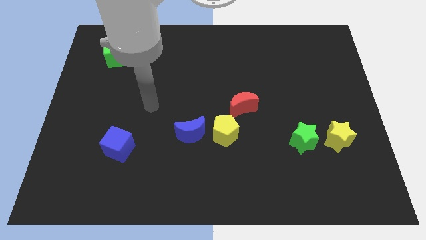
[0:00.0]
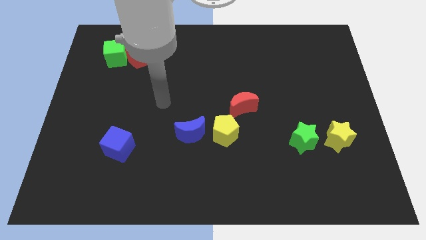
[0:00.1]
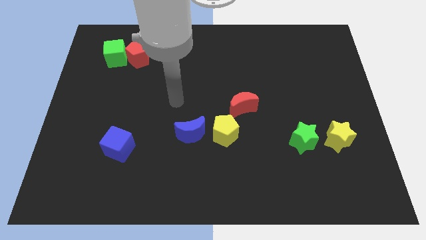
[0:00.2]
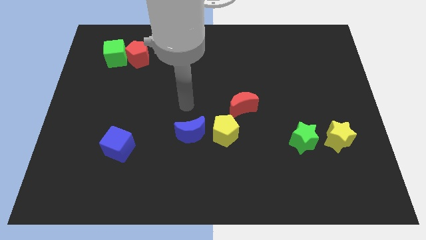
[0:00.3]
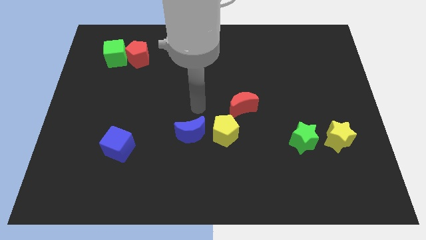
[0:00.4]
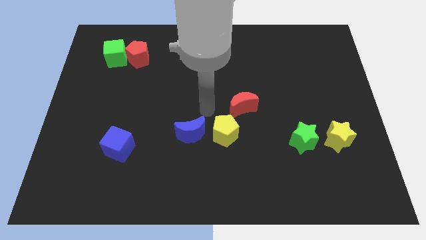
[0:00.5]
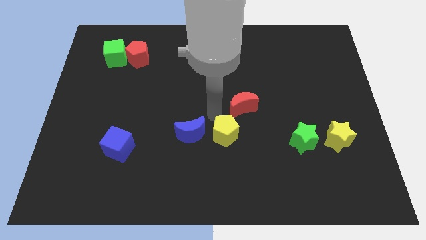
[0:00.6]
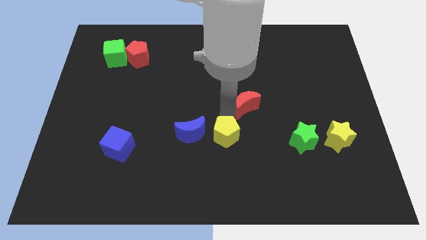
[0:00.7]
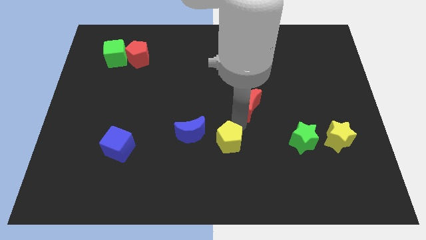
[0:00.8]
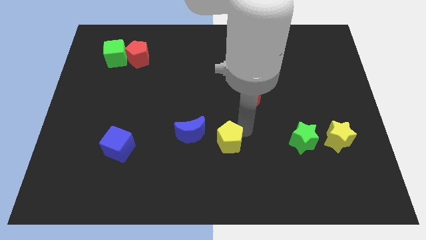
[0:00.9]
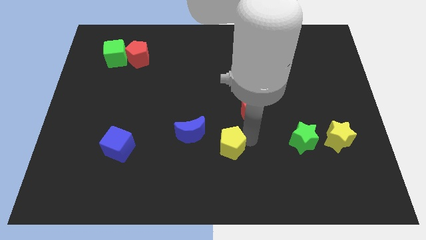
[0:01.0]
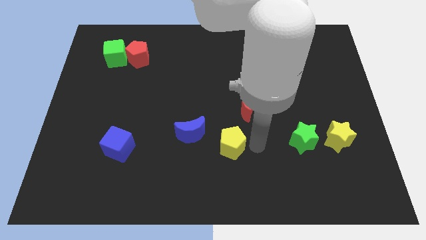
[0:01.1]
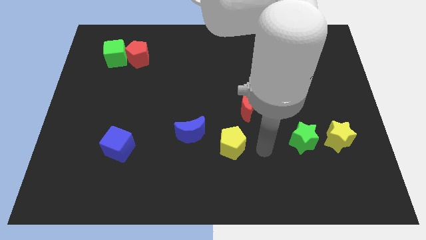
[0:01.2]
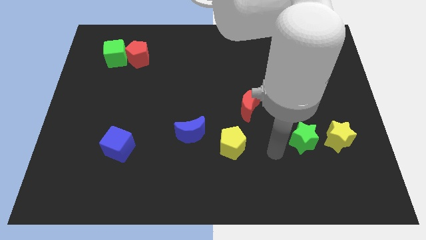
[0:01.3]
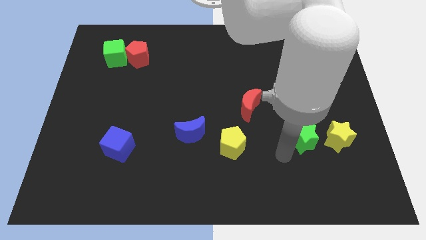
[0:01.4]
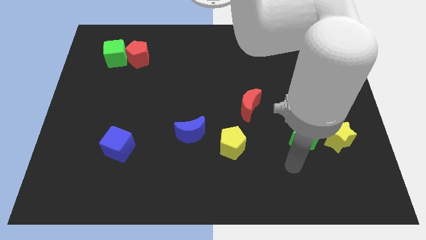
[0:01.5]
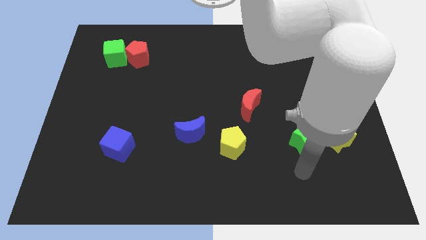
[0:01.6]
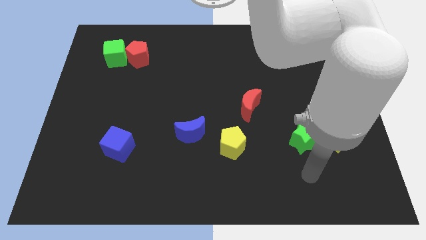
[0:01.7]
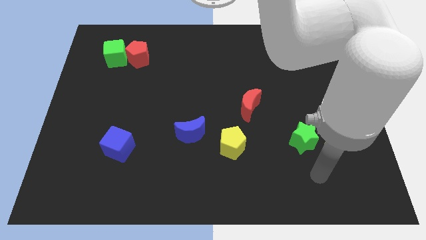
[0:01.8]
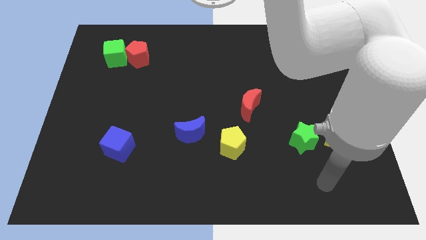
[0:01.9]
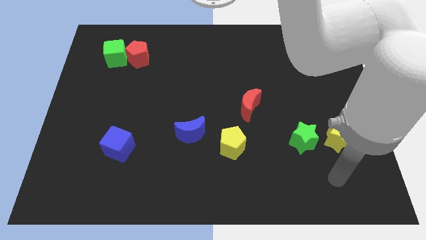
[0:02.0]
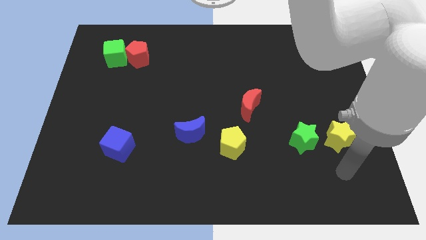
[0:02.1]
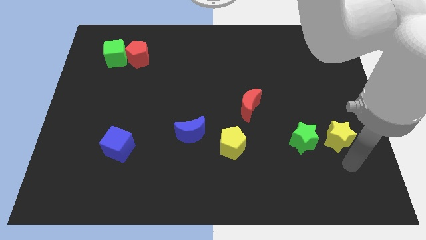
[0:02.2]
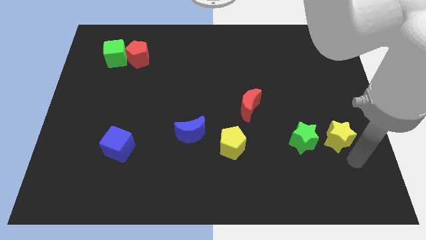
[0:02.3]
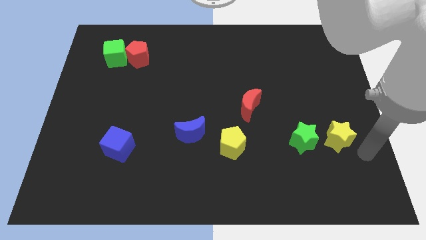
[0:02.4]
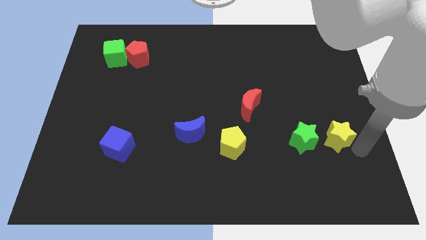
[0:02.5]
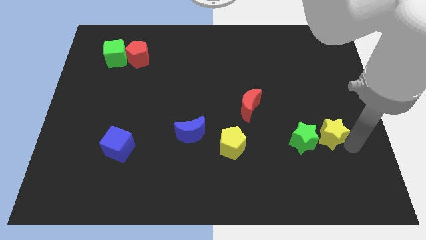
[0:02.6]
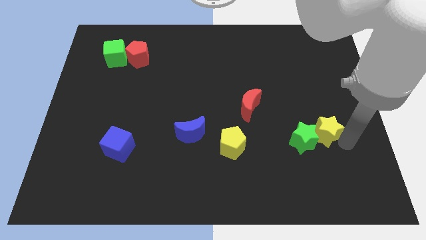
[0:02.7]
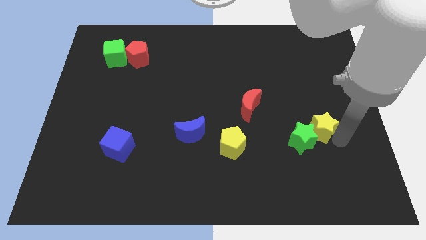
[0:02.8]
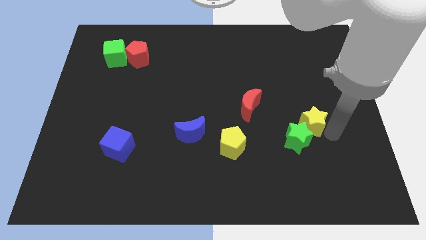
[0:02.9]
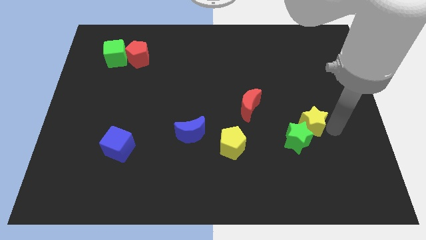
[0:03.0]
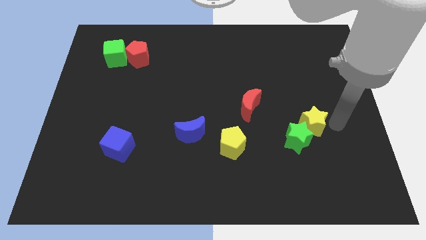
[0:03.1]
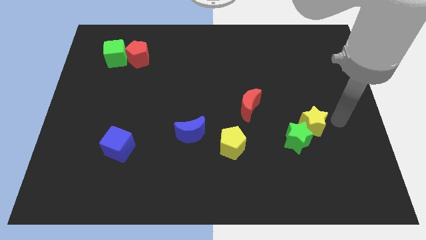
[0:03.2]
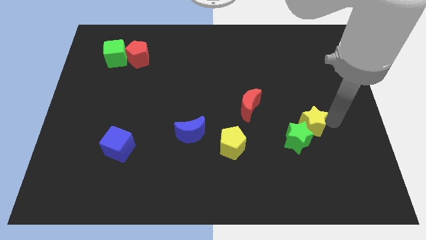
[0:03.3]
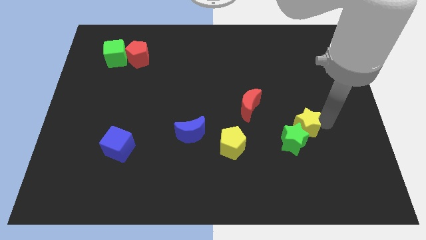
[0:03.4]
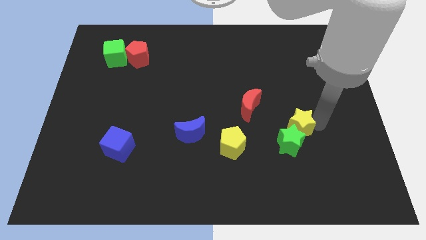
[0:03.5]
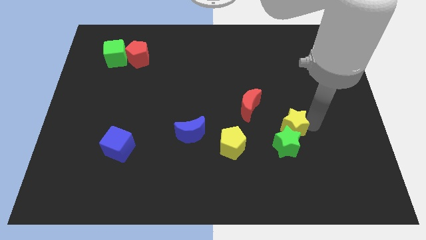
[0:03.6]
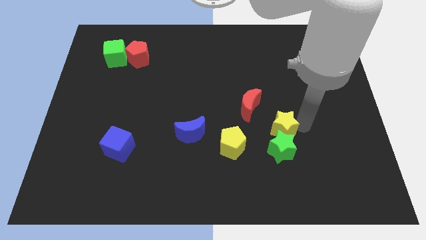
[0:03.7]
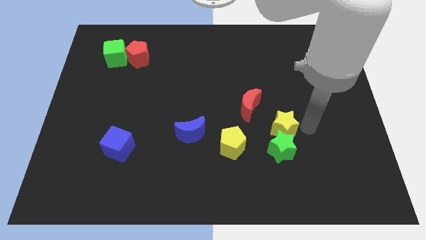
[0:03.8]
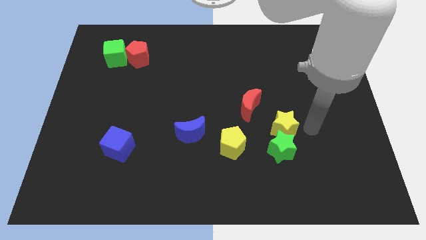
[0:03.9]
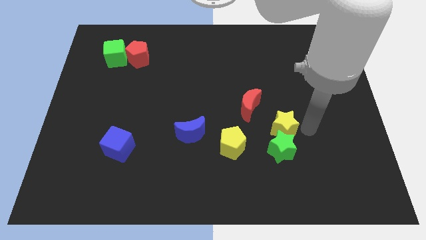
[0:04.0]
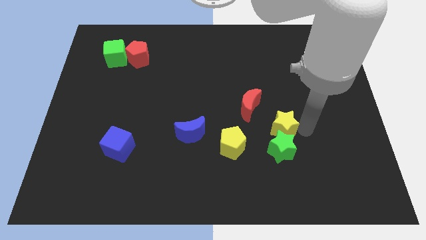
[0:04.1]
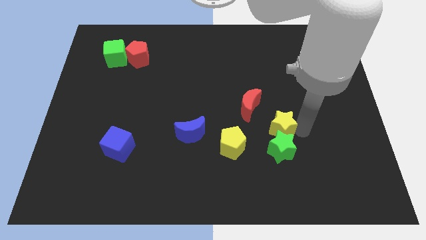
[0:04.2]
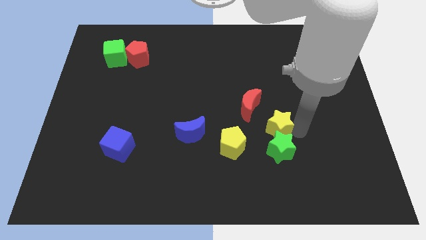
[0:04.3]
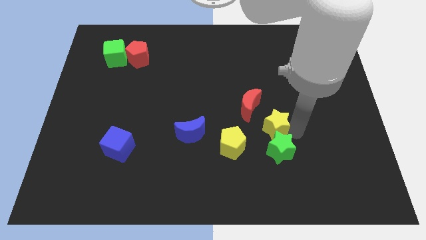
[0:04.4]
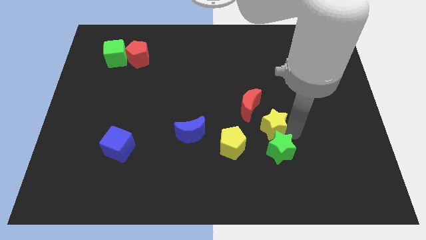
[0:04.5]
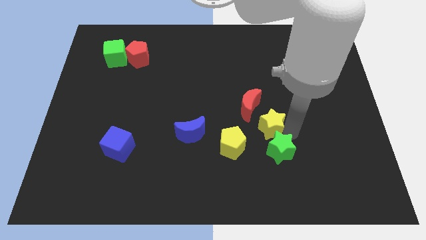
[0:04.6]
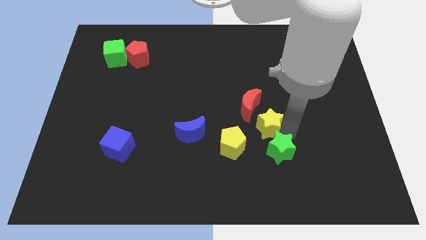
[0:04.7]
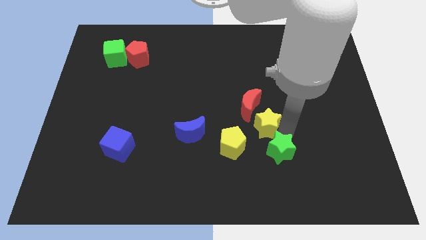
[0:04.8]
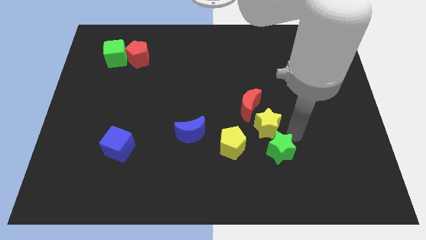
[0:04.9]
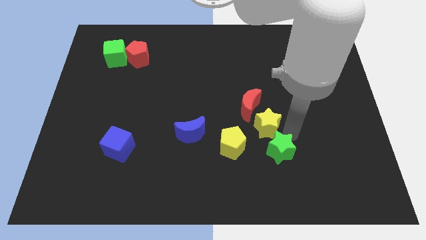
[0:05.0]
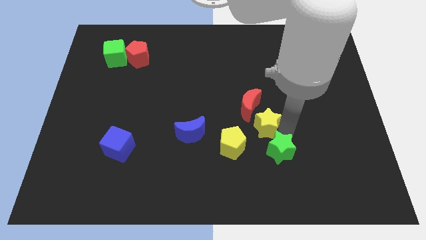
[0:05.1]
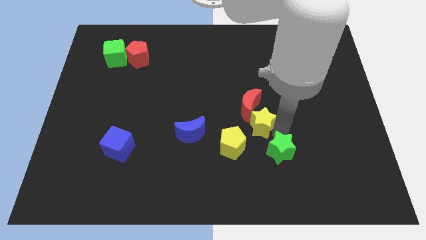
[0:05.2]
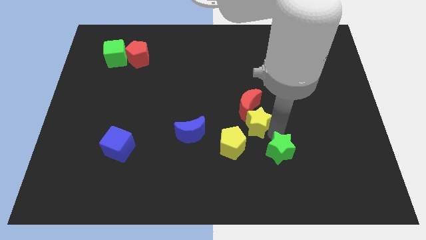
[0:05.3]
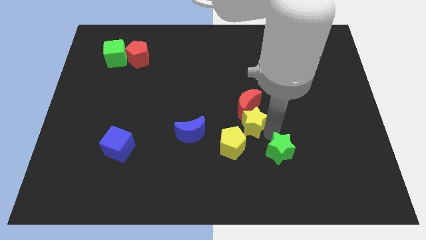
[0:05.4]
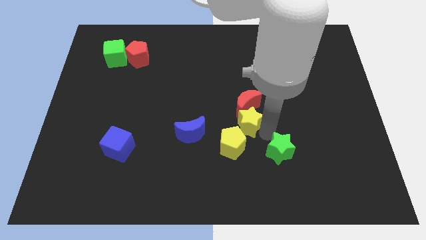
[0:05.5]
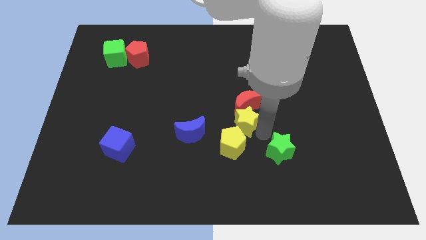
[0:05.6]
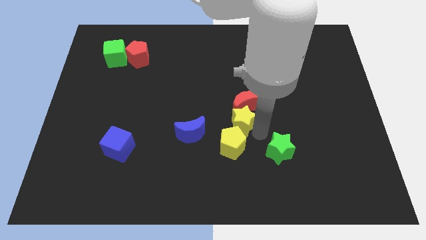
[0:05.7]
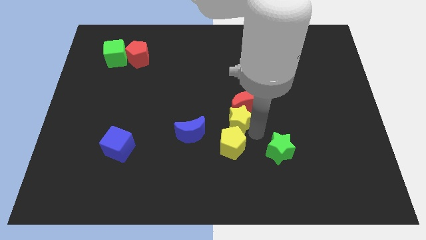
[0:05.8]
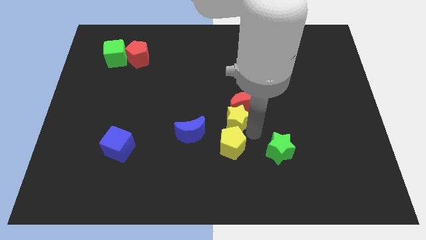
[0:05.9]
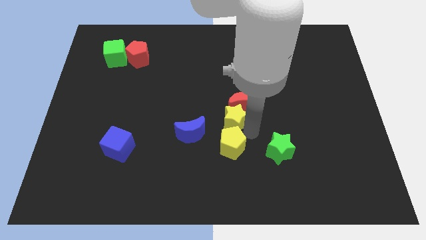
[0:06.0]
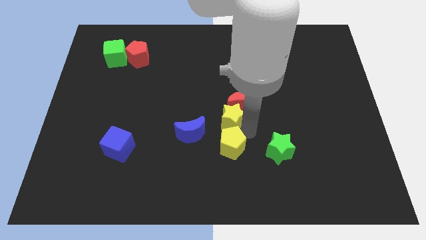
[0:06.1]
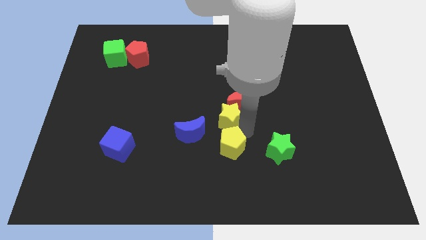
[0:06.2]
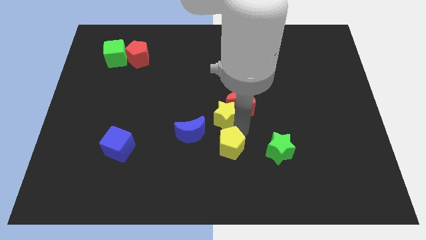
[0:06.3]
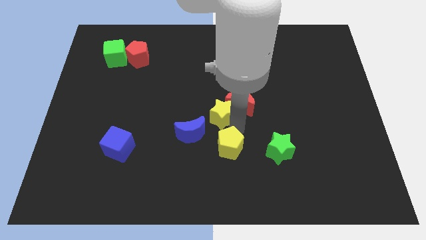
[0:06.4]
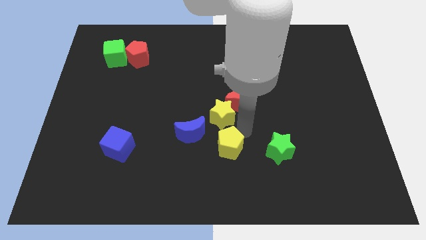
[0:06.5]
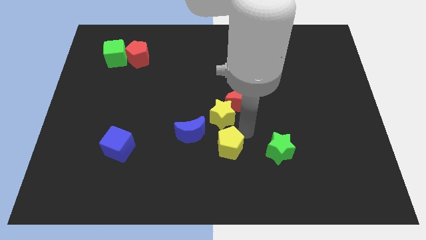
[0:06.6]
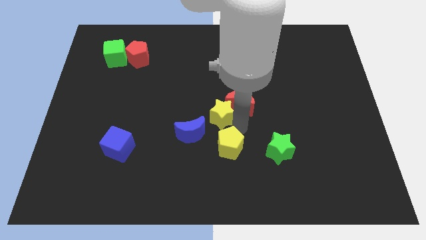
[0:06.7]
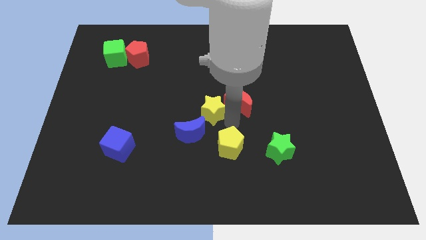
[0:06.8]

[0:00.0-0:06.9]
move the yellow star to the top of the blue moon

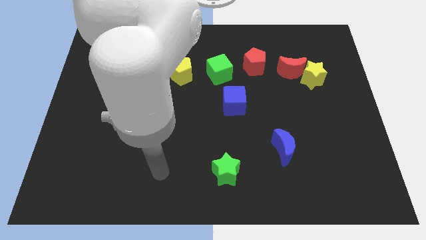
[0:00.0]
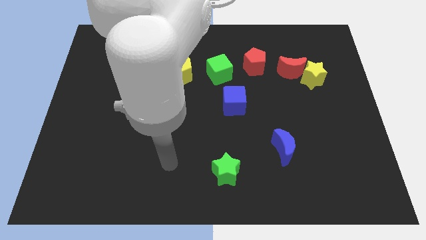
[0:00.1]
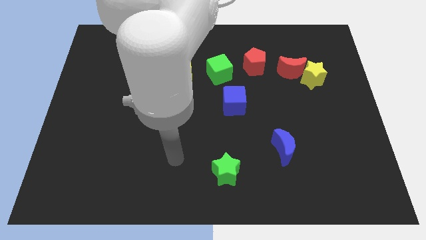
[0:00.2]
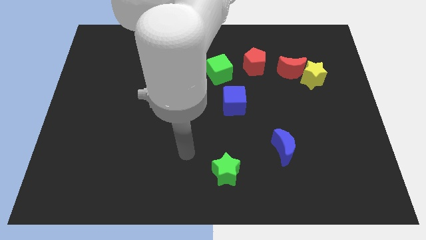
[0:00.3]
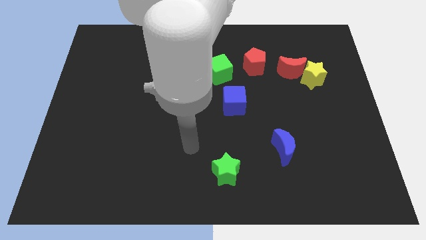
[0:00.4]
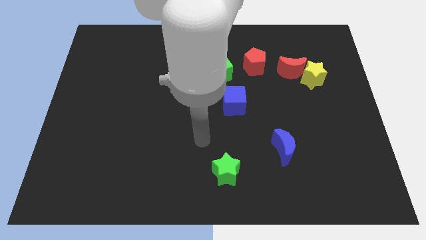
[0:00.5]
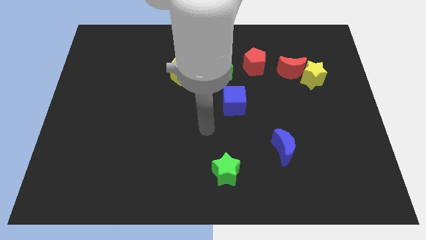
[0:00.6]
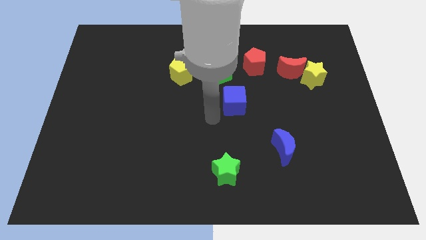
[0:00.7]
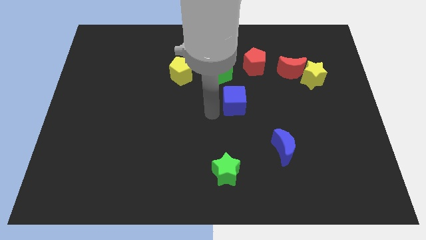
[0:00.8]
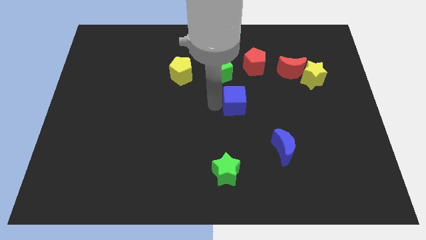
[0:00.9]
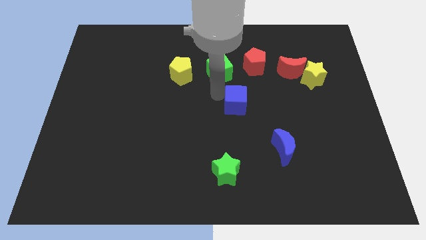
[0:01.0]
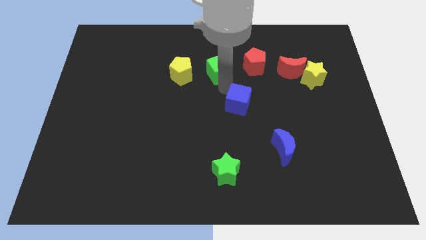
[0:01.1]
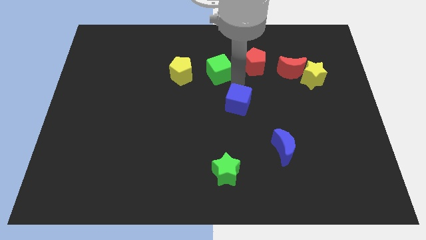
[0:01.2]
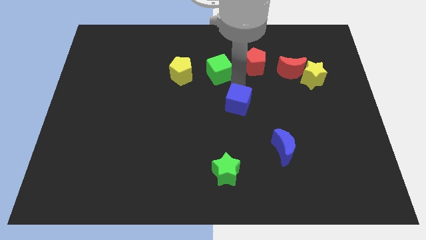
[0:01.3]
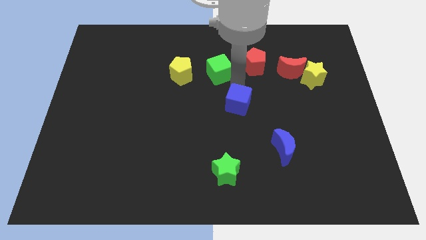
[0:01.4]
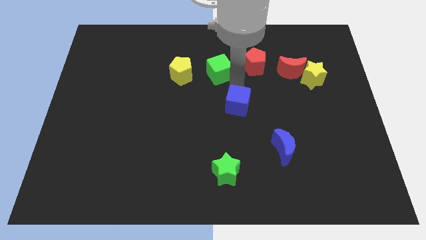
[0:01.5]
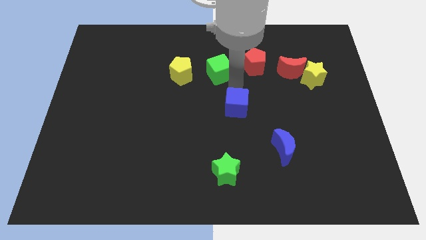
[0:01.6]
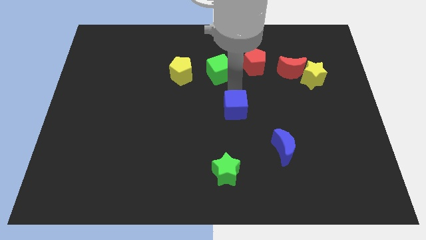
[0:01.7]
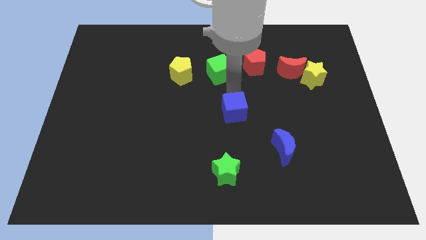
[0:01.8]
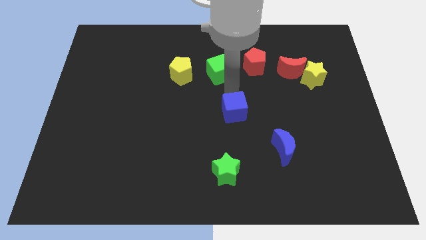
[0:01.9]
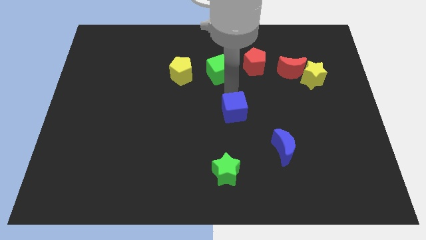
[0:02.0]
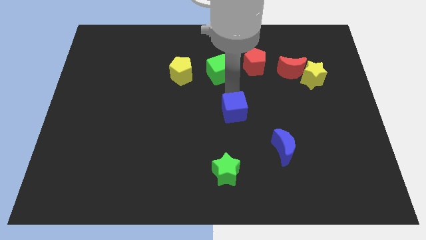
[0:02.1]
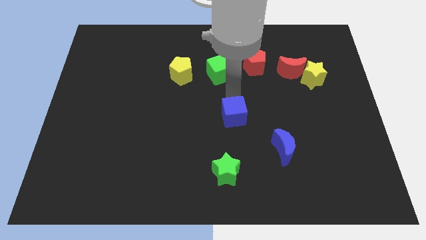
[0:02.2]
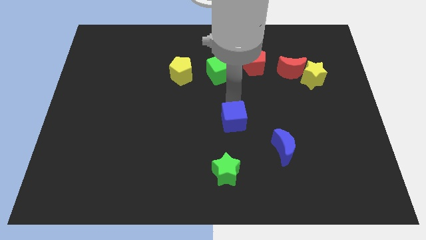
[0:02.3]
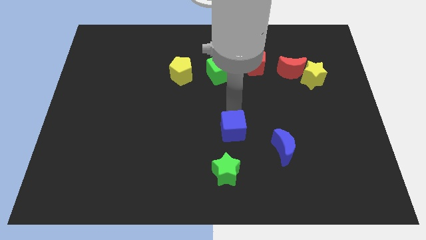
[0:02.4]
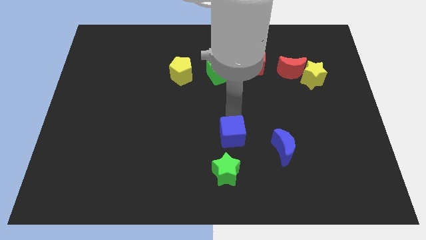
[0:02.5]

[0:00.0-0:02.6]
put the blue cube left of the blue moon
